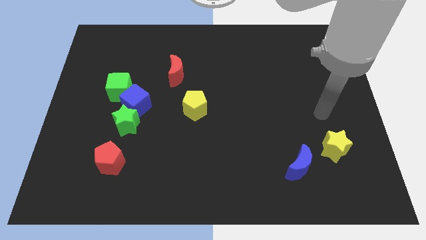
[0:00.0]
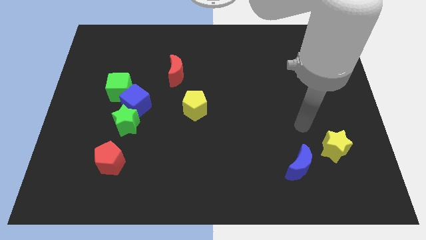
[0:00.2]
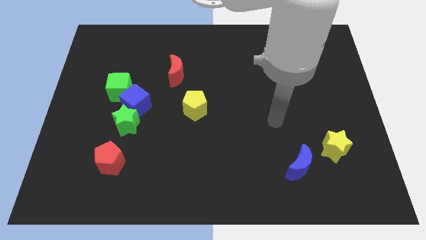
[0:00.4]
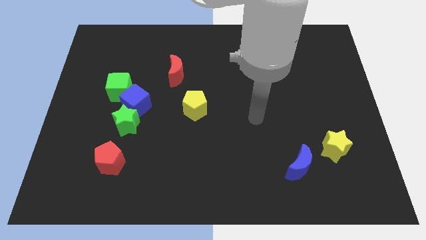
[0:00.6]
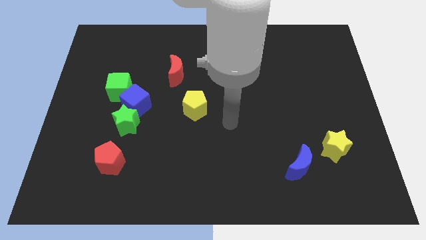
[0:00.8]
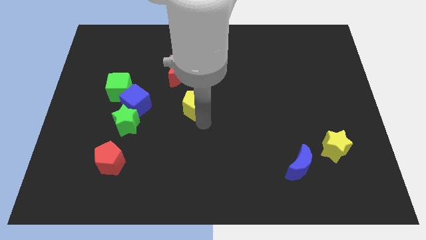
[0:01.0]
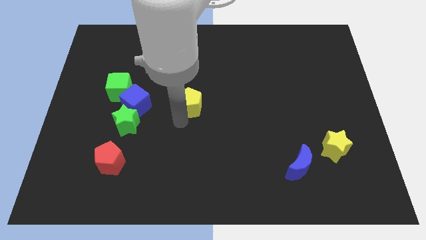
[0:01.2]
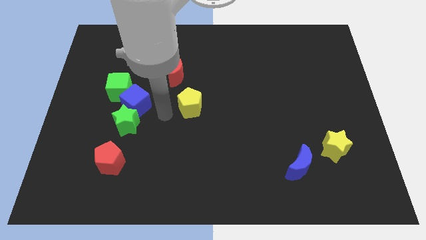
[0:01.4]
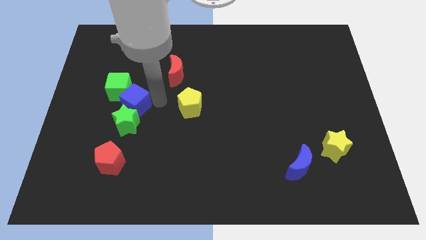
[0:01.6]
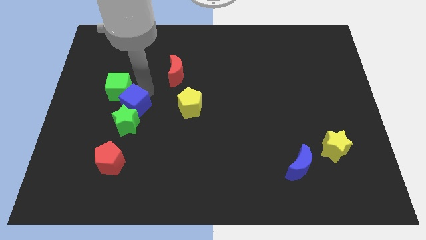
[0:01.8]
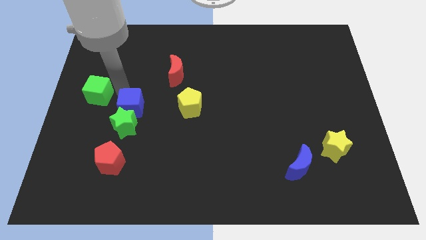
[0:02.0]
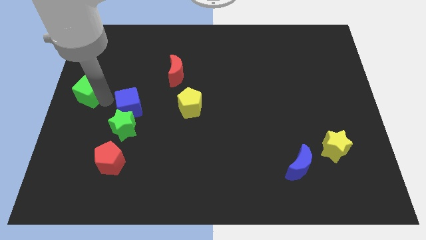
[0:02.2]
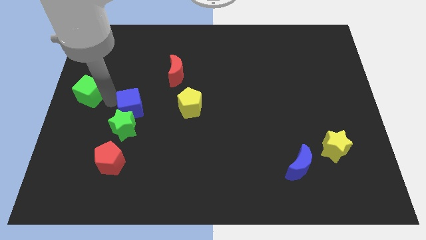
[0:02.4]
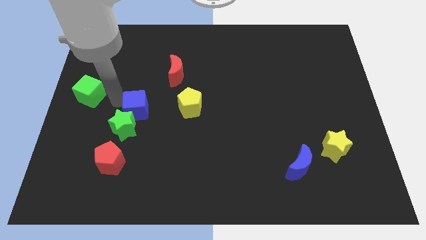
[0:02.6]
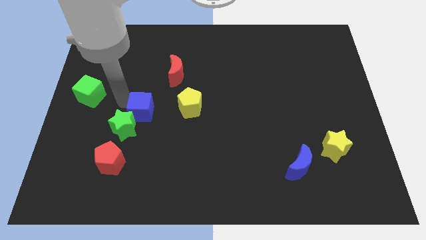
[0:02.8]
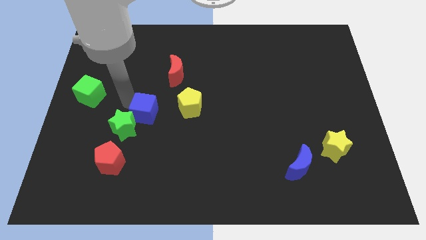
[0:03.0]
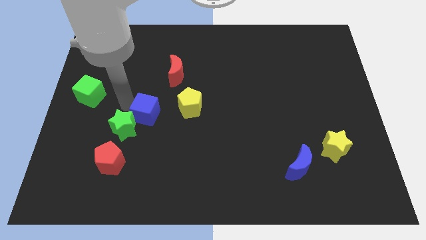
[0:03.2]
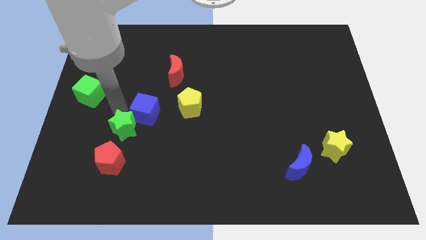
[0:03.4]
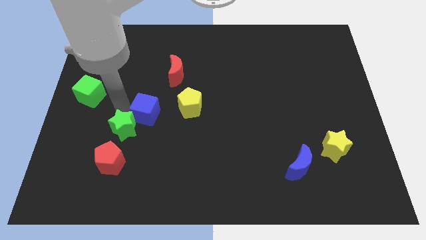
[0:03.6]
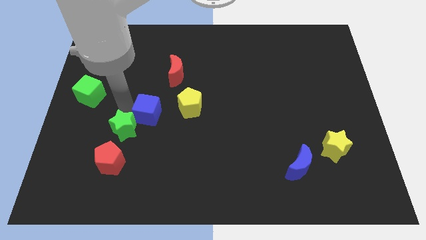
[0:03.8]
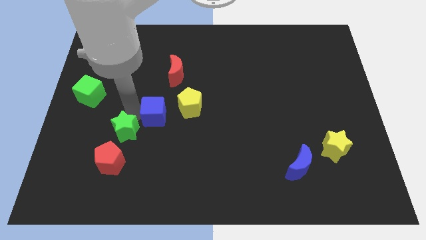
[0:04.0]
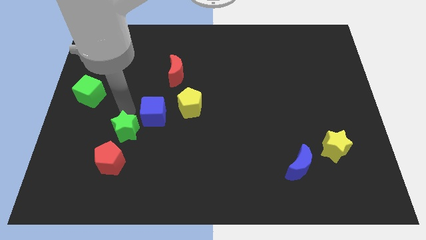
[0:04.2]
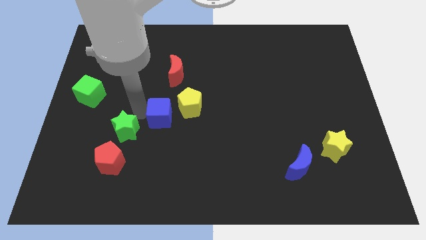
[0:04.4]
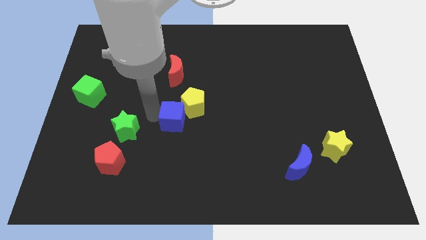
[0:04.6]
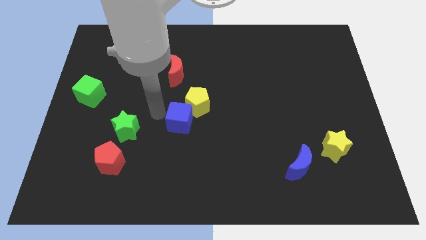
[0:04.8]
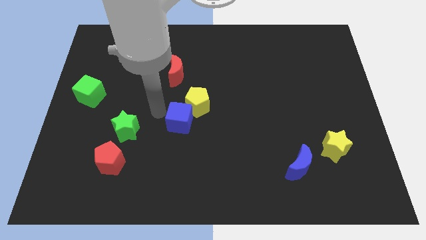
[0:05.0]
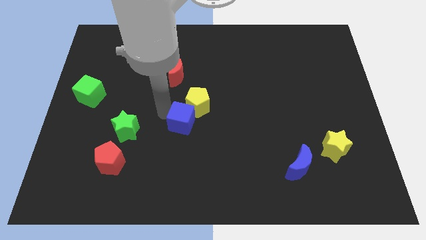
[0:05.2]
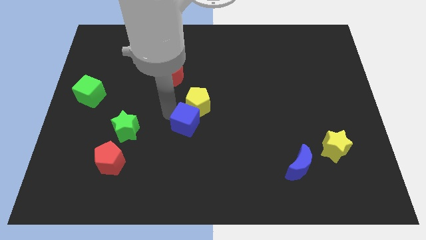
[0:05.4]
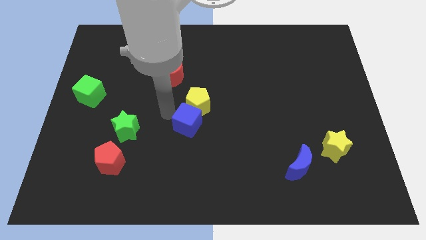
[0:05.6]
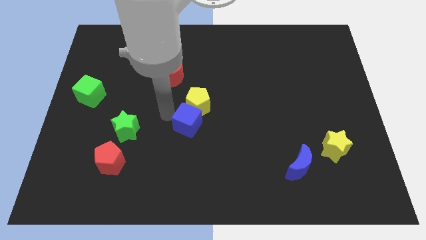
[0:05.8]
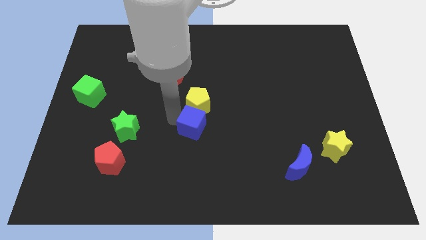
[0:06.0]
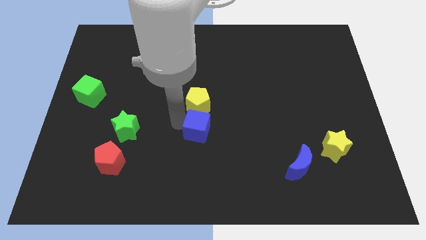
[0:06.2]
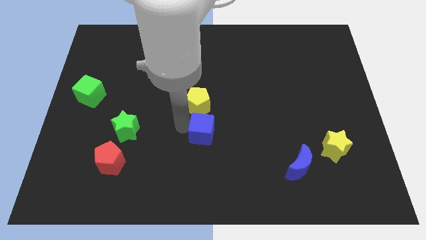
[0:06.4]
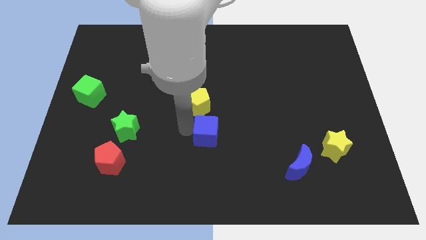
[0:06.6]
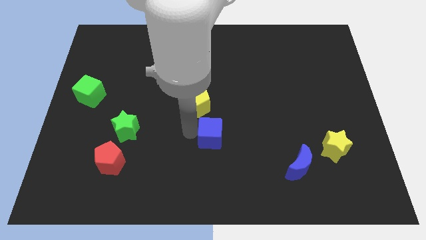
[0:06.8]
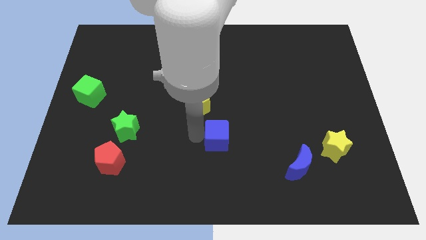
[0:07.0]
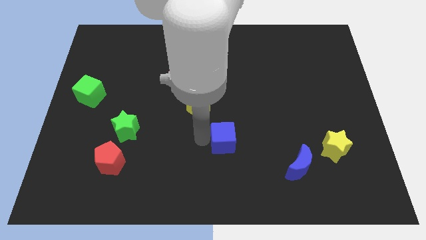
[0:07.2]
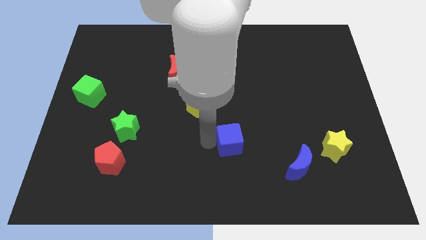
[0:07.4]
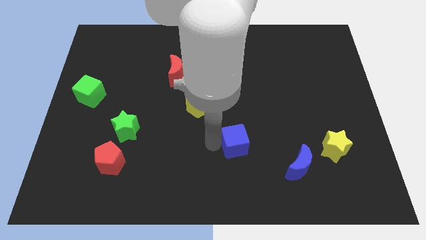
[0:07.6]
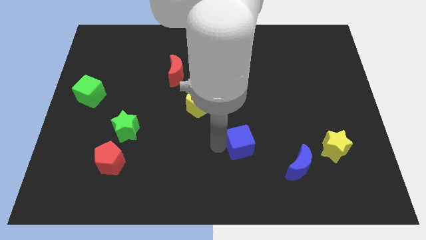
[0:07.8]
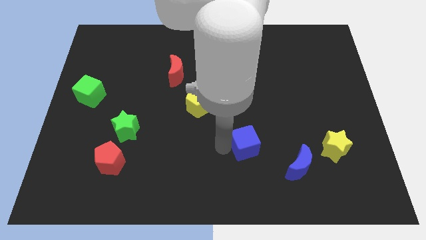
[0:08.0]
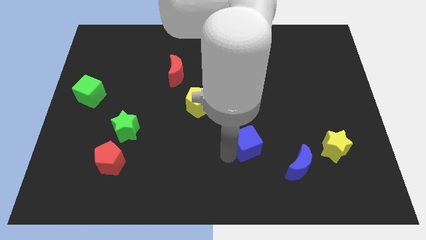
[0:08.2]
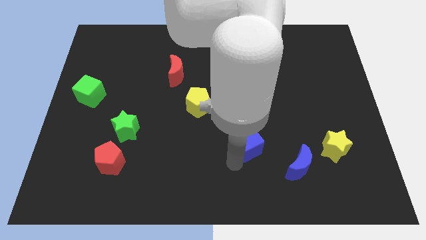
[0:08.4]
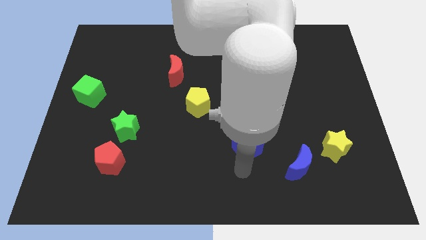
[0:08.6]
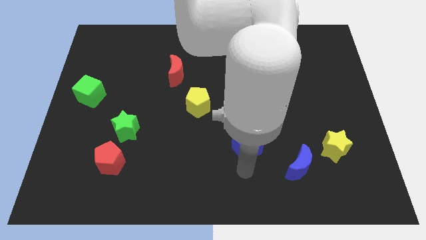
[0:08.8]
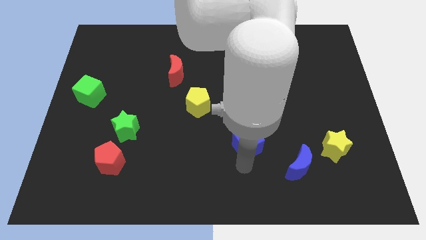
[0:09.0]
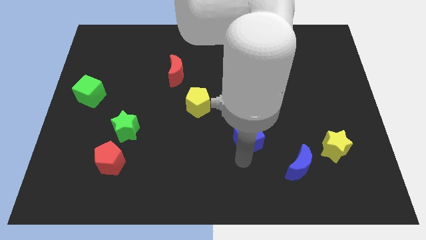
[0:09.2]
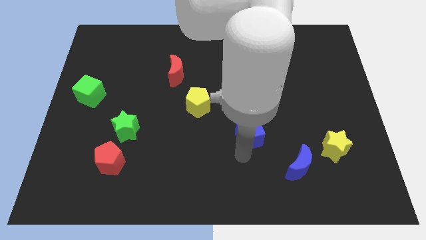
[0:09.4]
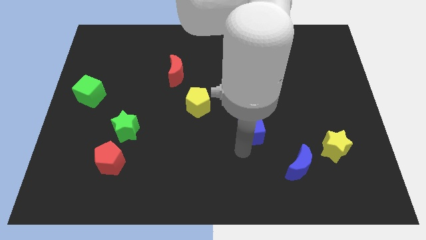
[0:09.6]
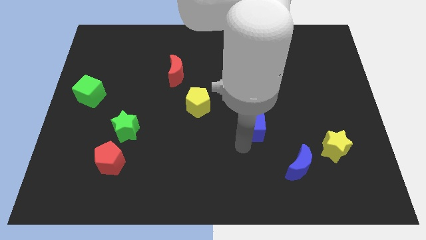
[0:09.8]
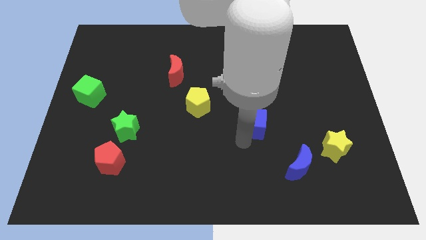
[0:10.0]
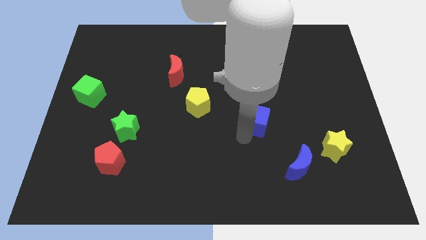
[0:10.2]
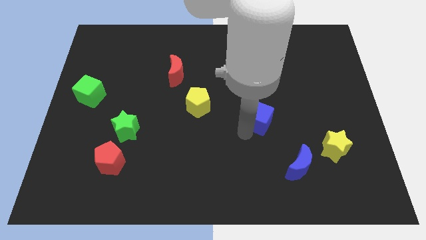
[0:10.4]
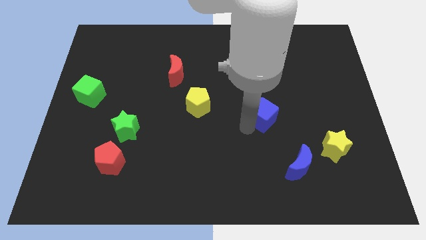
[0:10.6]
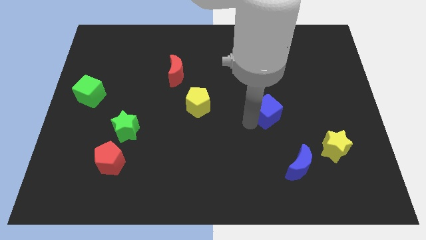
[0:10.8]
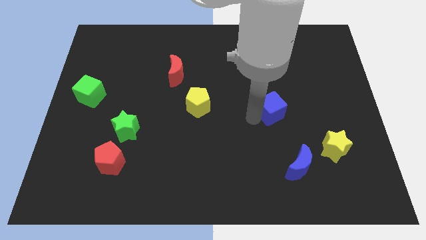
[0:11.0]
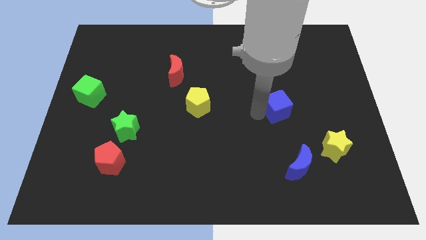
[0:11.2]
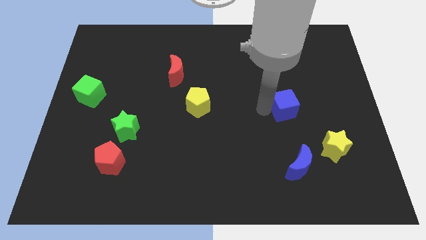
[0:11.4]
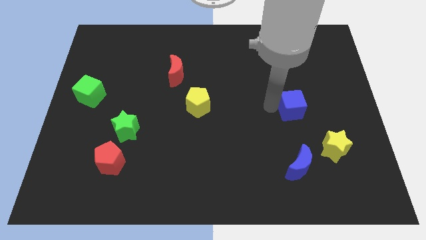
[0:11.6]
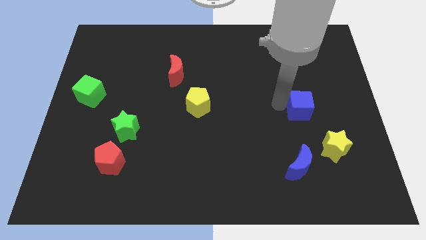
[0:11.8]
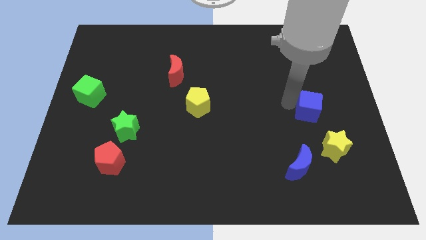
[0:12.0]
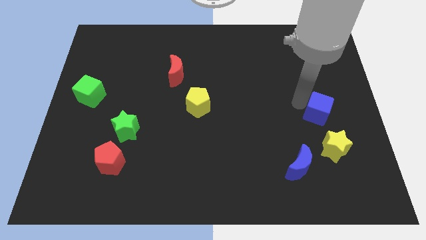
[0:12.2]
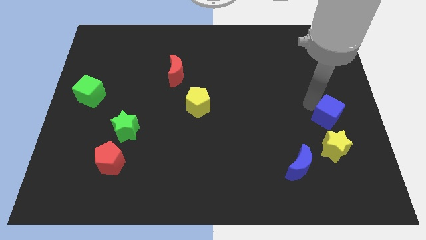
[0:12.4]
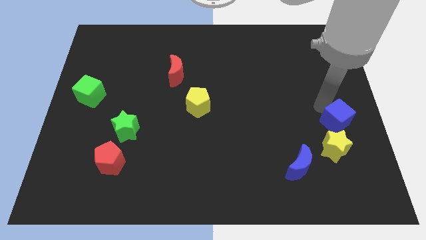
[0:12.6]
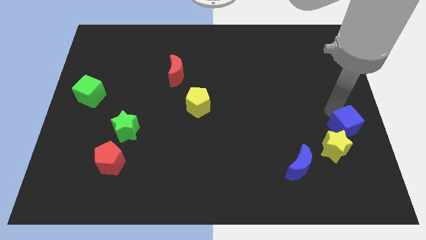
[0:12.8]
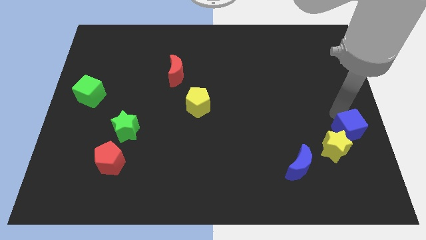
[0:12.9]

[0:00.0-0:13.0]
move the blue cube close to the yellow star

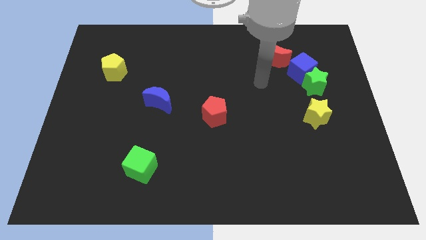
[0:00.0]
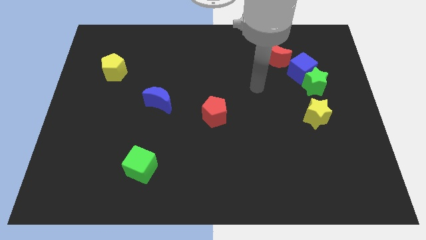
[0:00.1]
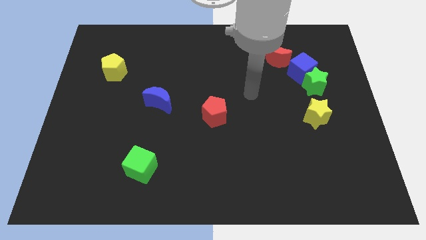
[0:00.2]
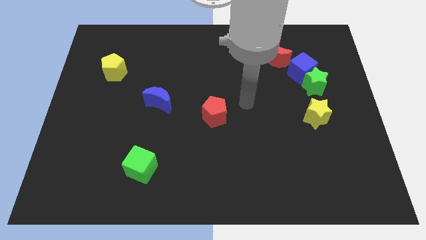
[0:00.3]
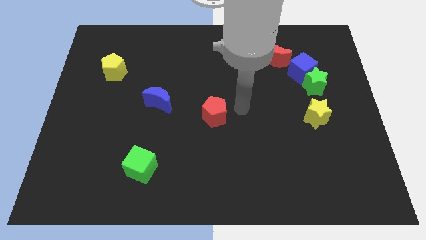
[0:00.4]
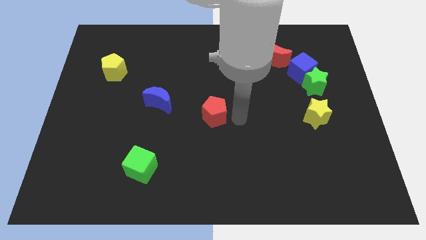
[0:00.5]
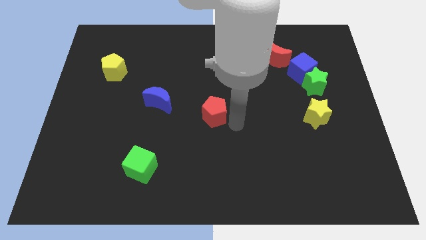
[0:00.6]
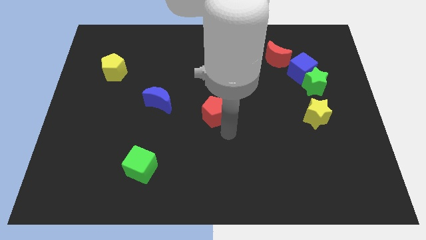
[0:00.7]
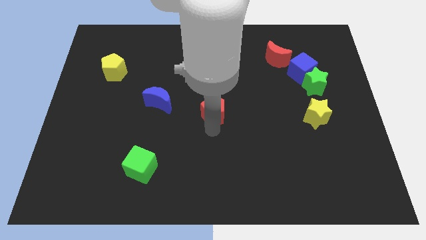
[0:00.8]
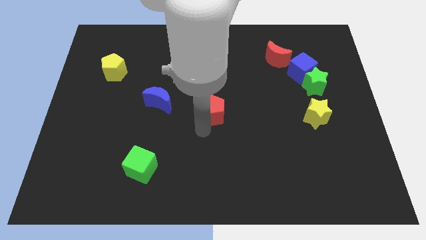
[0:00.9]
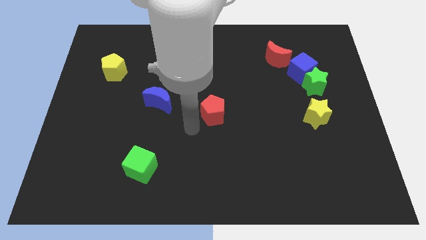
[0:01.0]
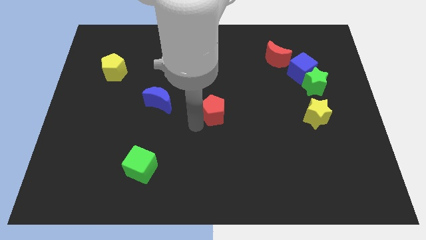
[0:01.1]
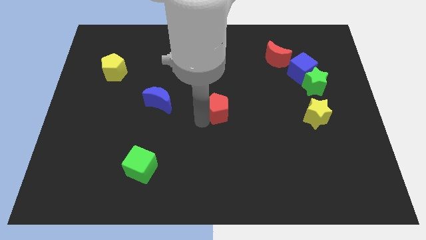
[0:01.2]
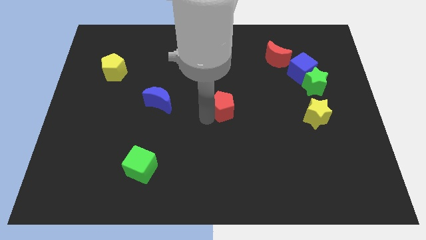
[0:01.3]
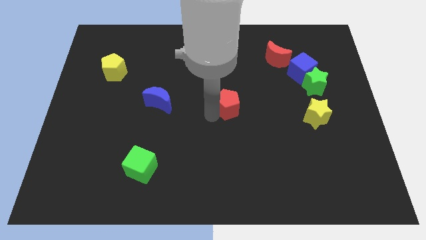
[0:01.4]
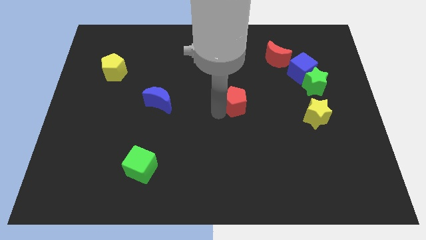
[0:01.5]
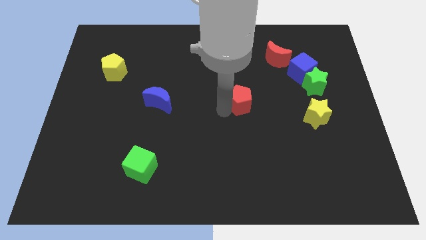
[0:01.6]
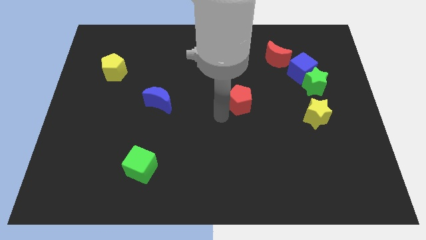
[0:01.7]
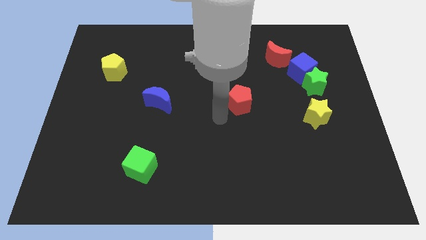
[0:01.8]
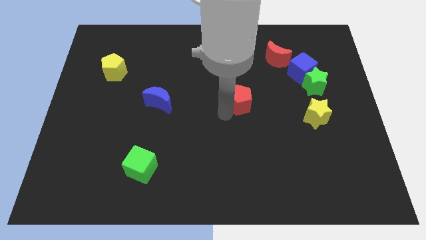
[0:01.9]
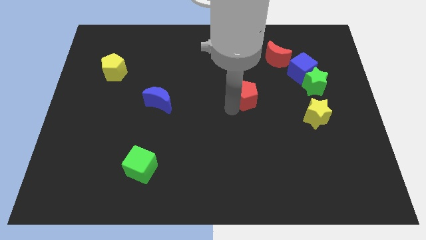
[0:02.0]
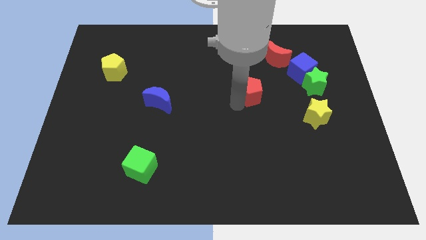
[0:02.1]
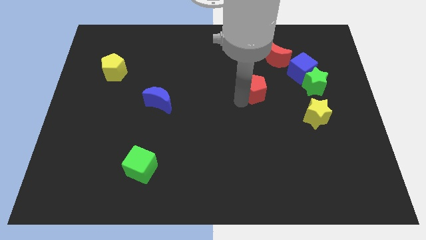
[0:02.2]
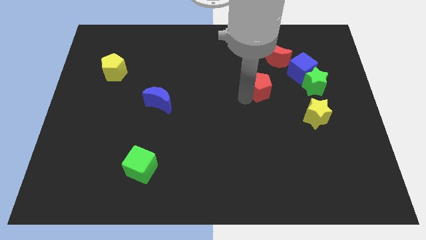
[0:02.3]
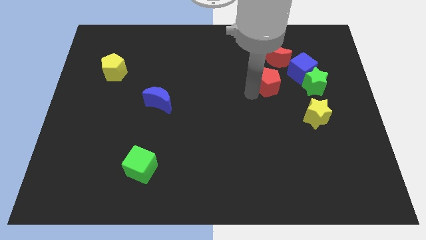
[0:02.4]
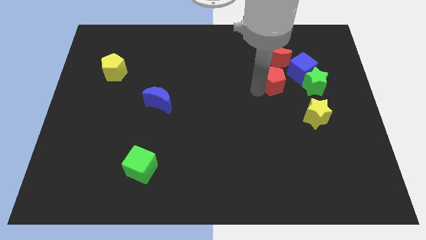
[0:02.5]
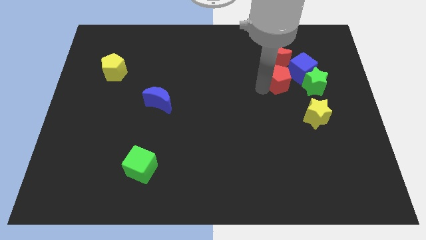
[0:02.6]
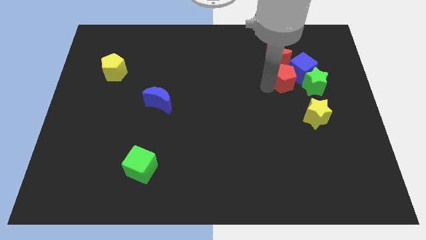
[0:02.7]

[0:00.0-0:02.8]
slide the red pentagon to the blue cube
